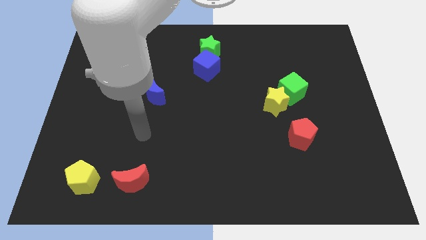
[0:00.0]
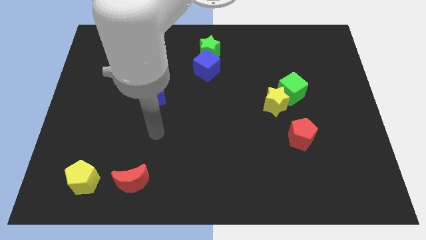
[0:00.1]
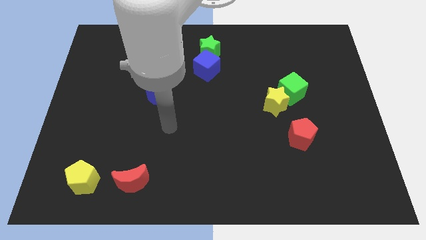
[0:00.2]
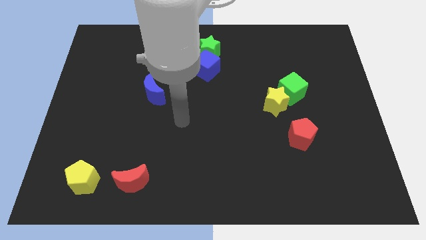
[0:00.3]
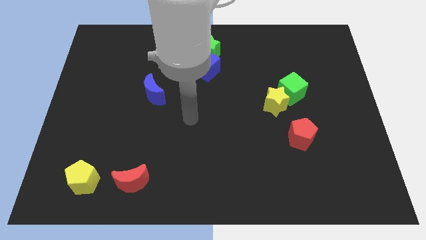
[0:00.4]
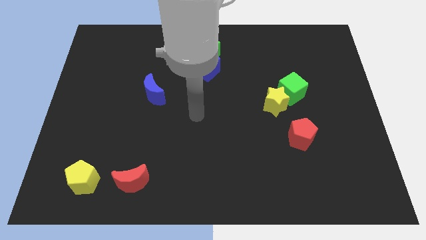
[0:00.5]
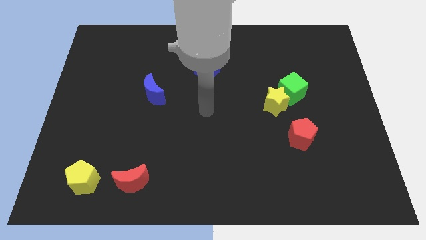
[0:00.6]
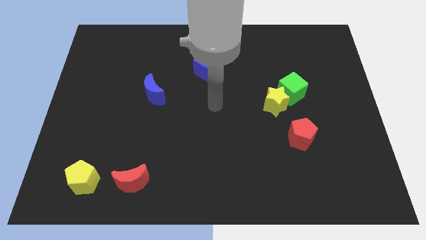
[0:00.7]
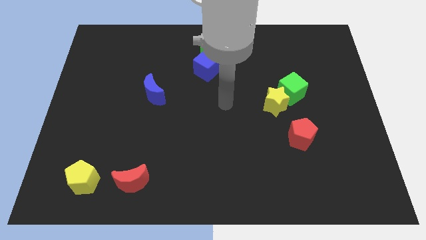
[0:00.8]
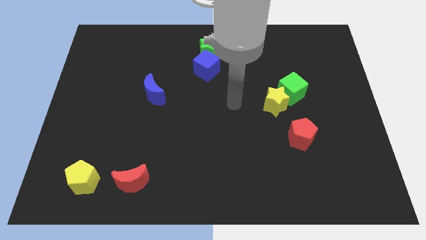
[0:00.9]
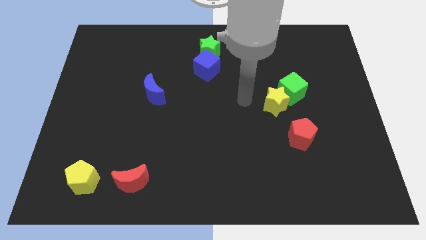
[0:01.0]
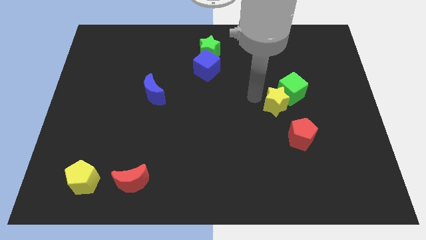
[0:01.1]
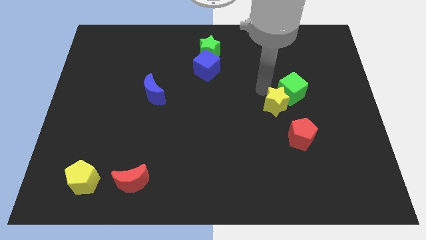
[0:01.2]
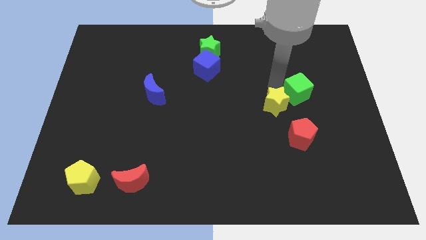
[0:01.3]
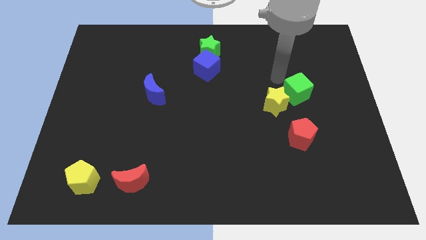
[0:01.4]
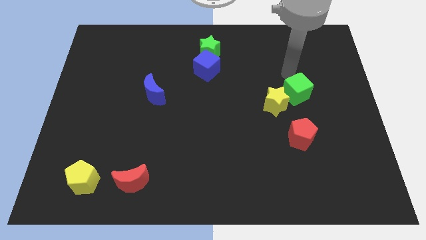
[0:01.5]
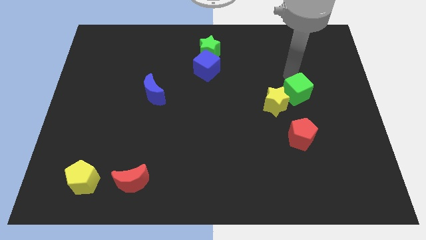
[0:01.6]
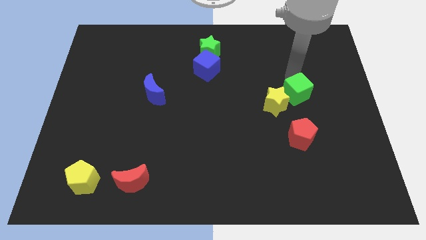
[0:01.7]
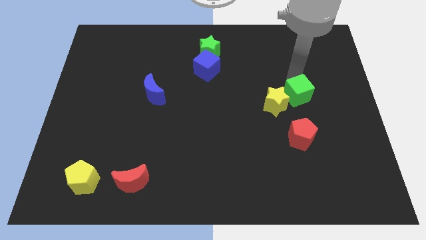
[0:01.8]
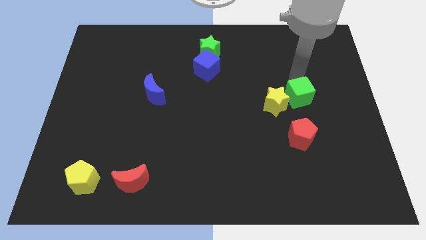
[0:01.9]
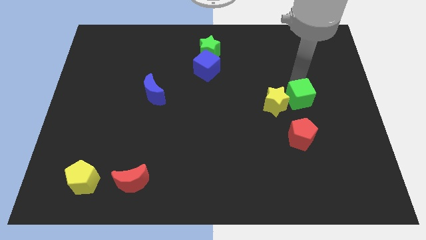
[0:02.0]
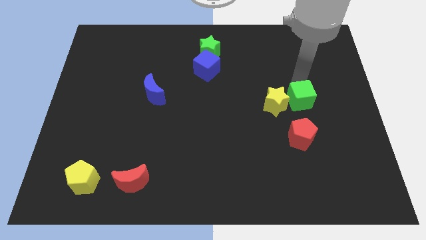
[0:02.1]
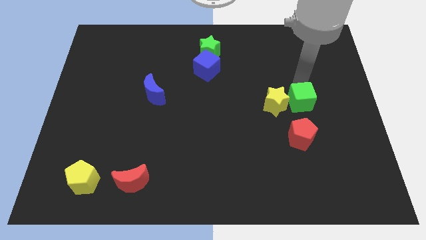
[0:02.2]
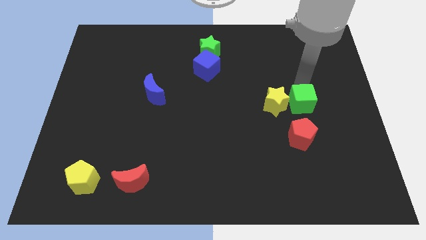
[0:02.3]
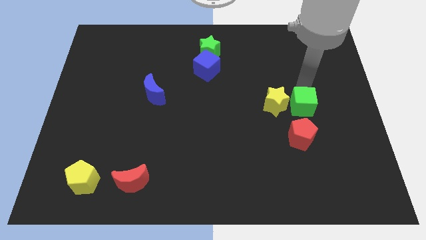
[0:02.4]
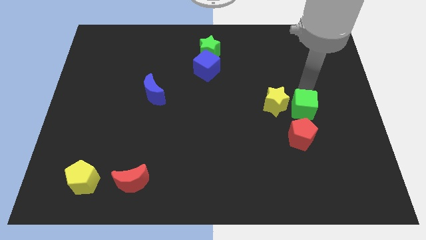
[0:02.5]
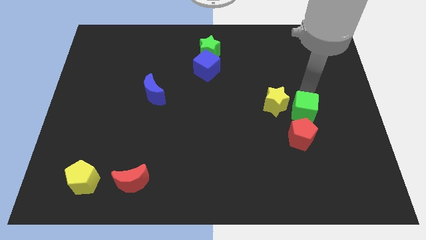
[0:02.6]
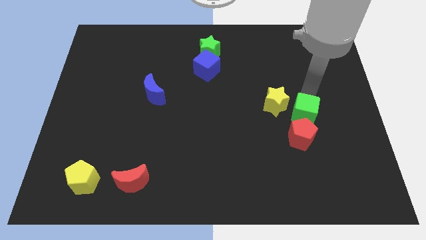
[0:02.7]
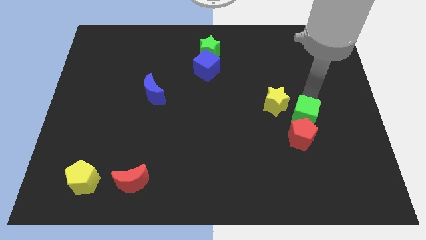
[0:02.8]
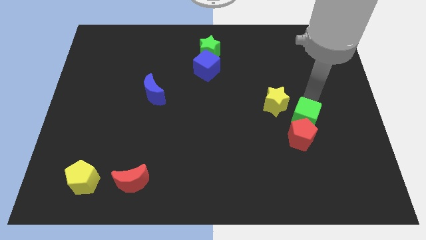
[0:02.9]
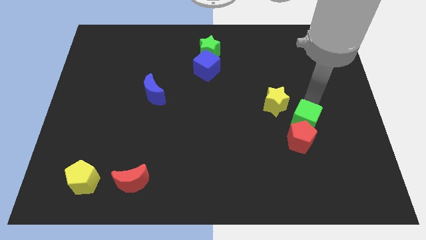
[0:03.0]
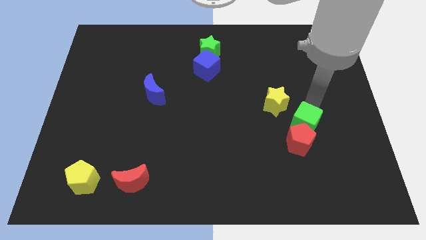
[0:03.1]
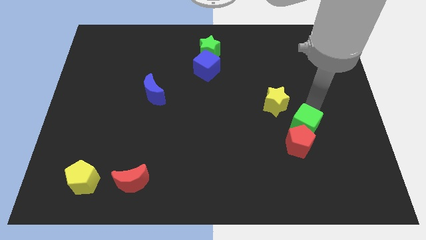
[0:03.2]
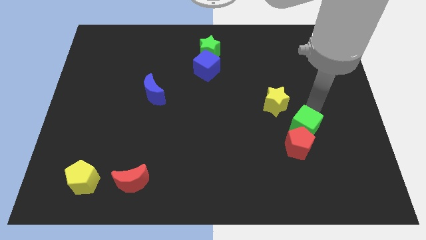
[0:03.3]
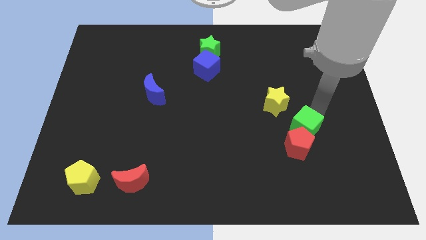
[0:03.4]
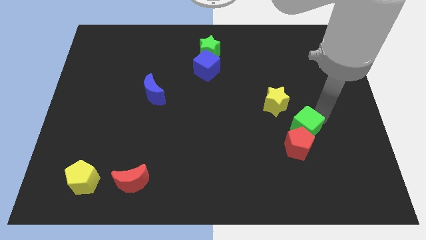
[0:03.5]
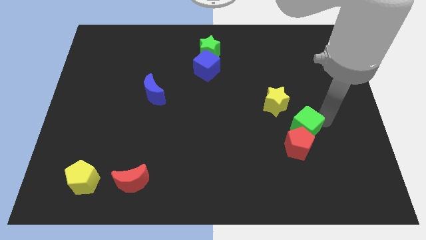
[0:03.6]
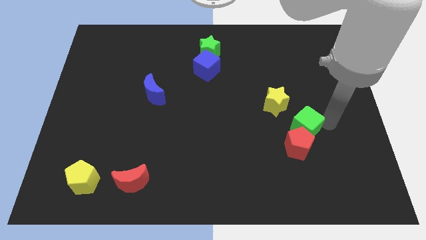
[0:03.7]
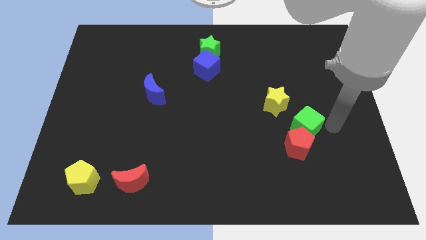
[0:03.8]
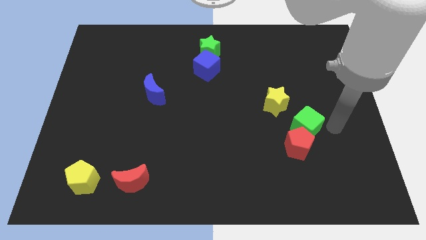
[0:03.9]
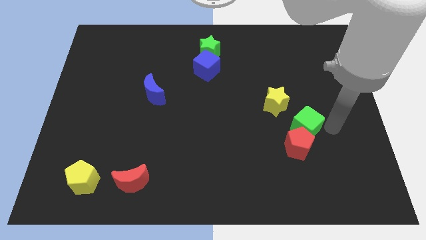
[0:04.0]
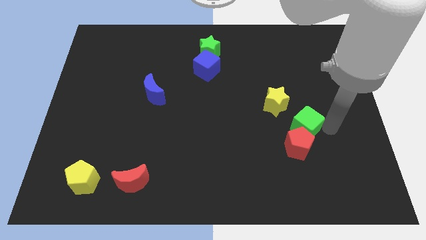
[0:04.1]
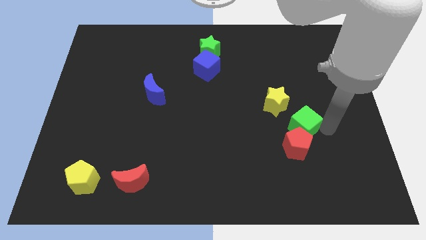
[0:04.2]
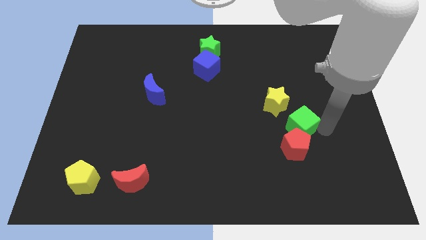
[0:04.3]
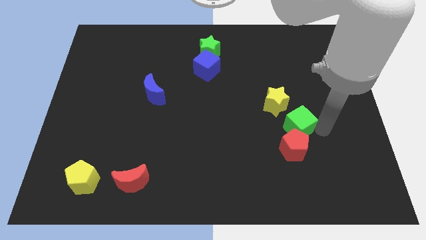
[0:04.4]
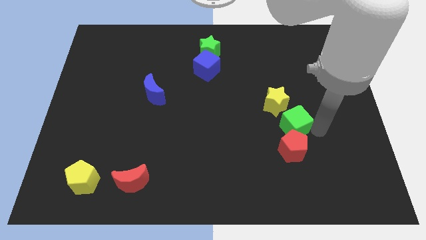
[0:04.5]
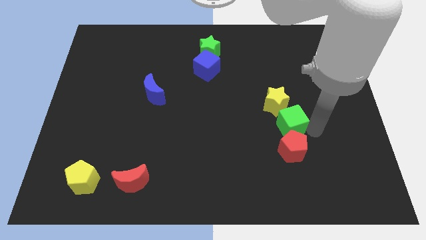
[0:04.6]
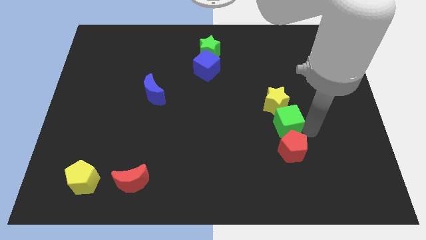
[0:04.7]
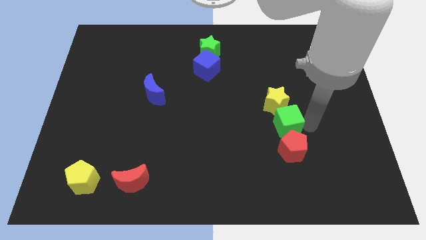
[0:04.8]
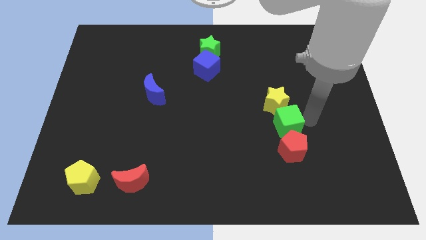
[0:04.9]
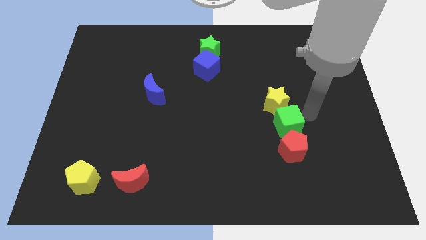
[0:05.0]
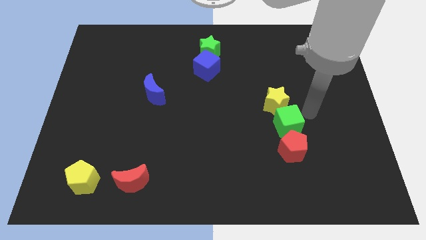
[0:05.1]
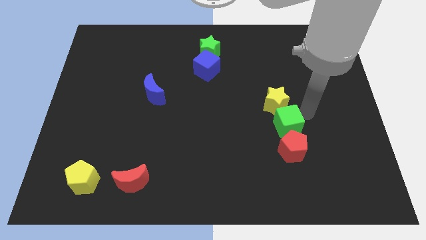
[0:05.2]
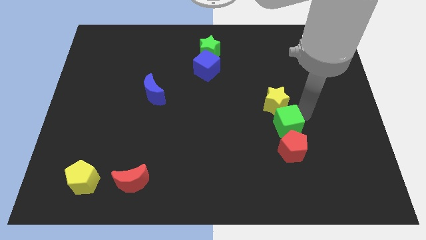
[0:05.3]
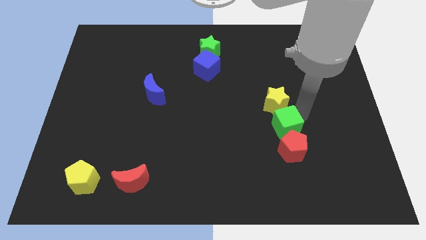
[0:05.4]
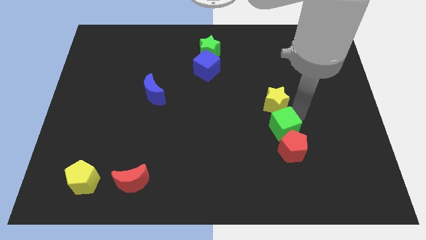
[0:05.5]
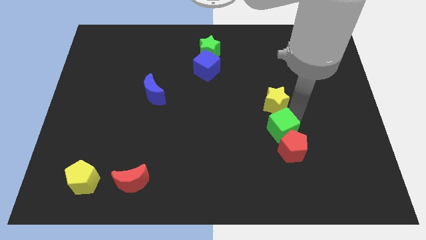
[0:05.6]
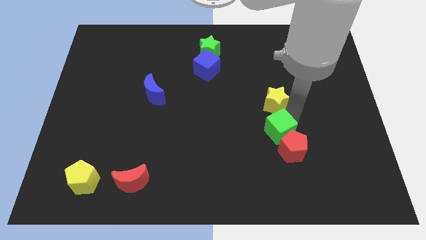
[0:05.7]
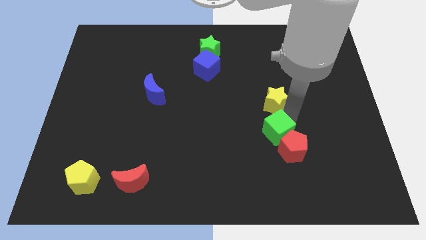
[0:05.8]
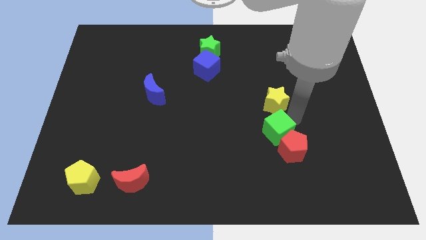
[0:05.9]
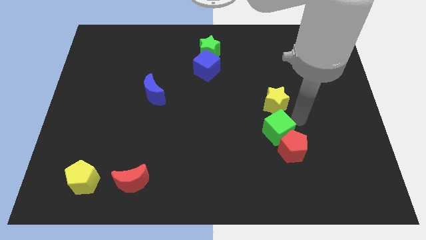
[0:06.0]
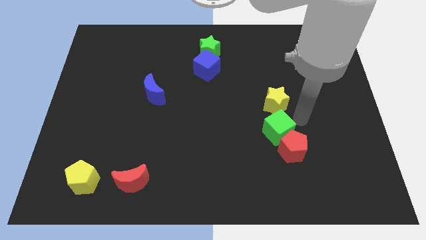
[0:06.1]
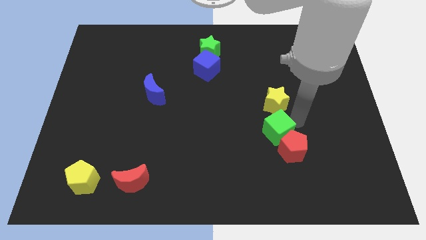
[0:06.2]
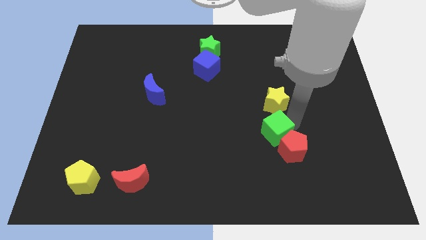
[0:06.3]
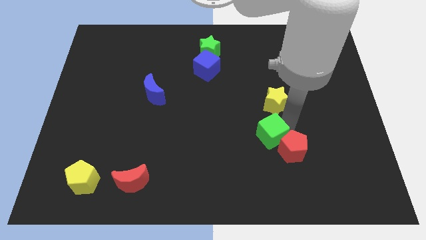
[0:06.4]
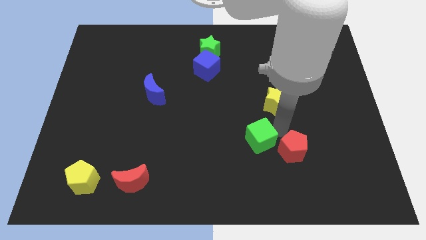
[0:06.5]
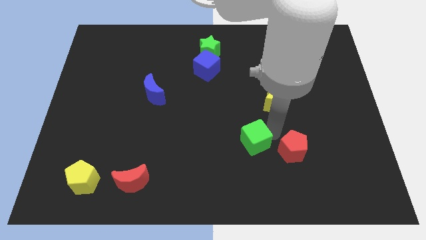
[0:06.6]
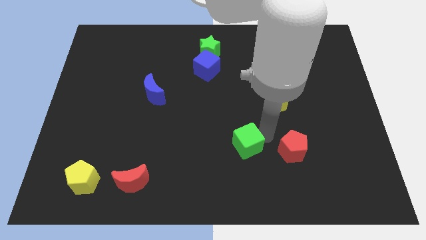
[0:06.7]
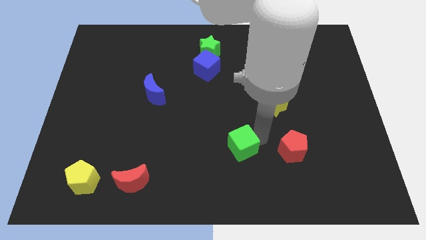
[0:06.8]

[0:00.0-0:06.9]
slide the green cube down and to the left

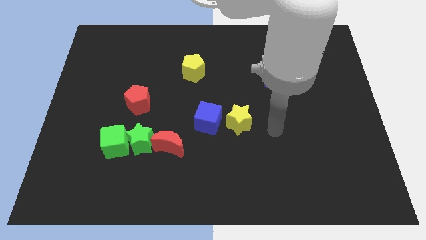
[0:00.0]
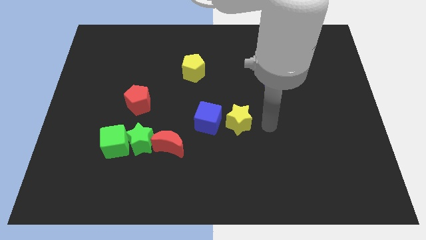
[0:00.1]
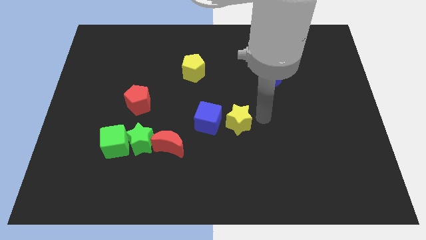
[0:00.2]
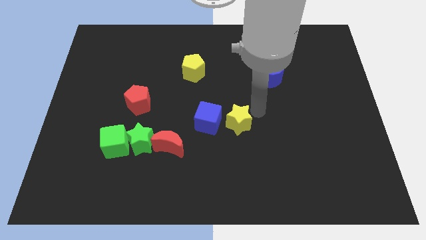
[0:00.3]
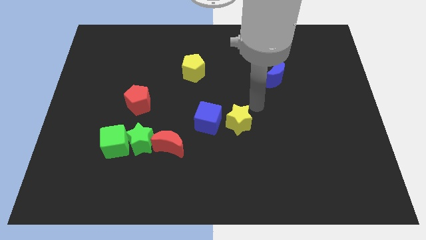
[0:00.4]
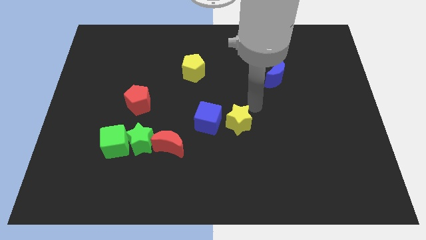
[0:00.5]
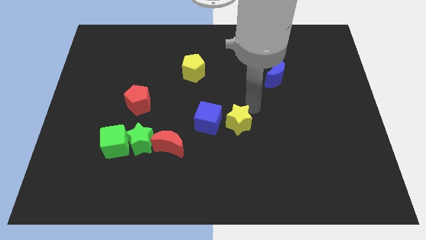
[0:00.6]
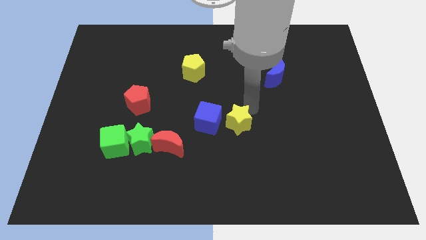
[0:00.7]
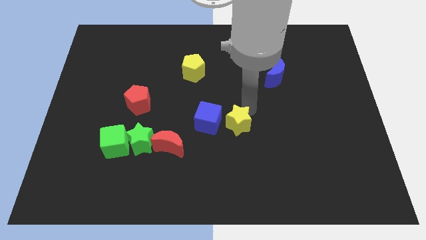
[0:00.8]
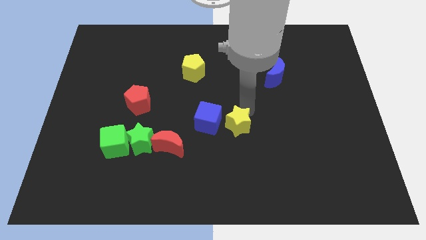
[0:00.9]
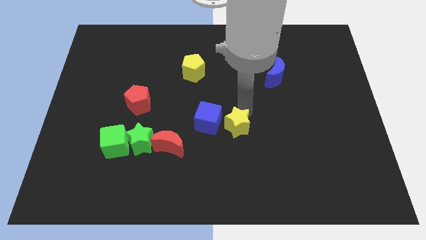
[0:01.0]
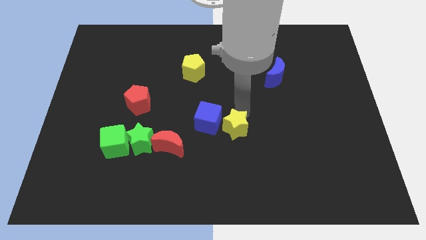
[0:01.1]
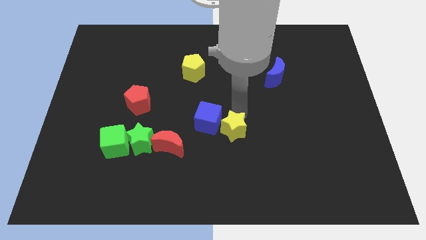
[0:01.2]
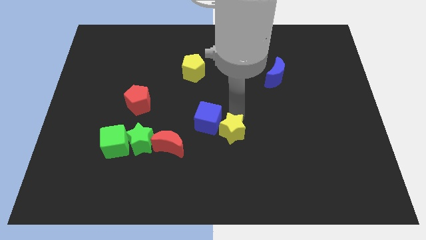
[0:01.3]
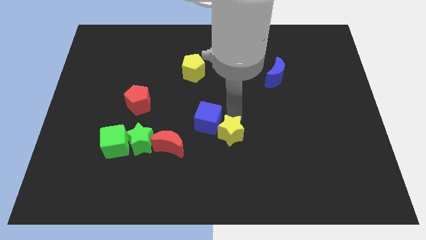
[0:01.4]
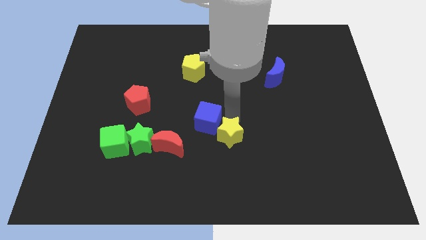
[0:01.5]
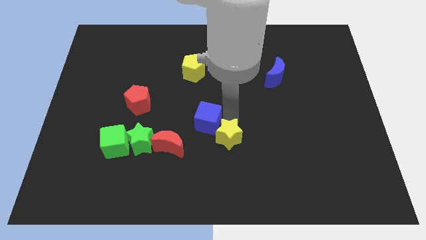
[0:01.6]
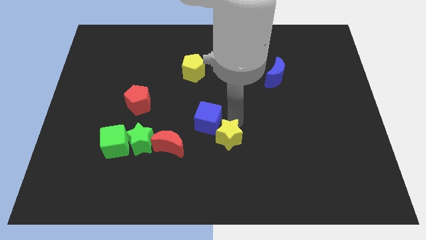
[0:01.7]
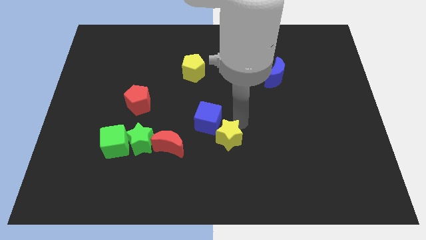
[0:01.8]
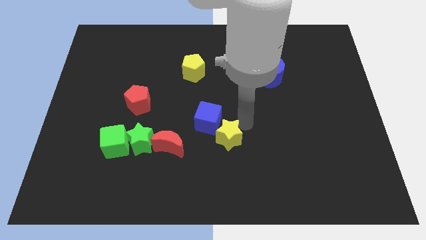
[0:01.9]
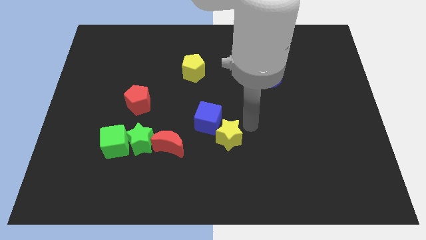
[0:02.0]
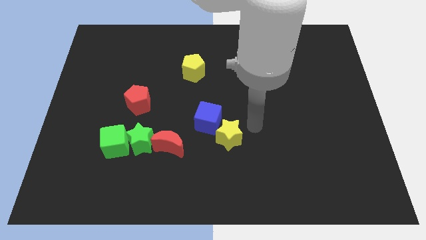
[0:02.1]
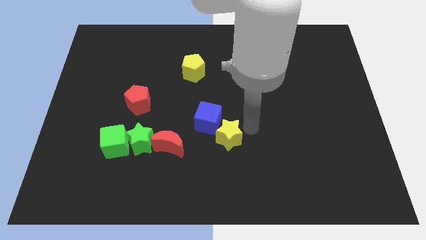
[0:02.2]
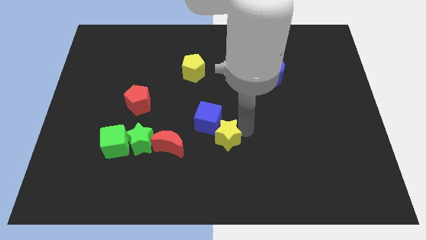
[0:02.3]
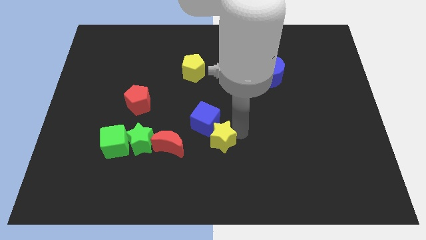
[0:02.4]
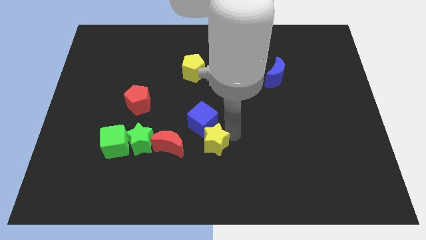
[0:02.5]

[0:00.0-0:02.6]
slightly slide the yellow star diagonally down and to the left
